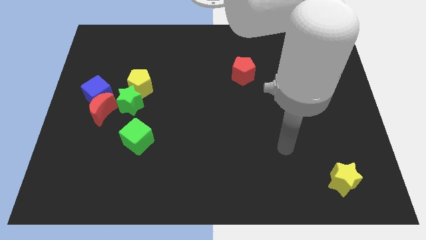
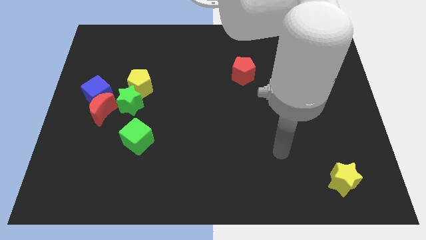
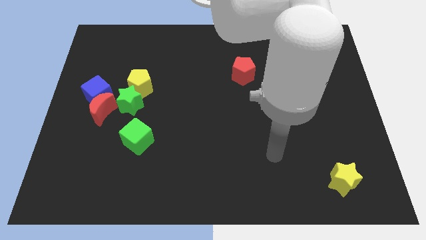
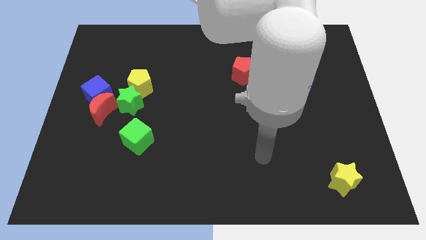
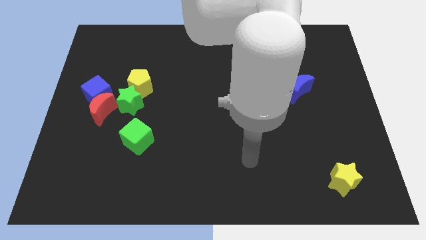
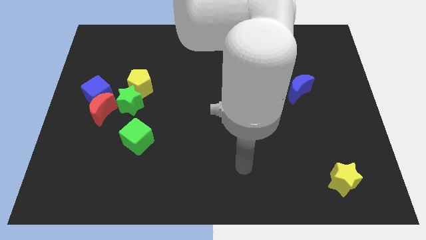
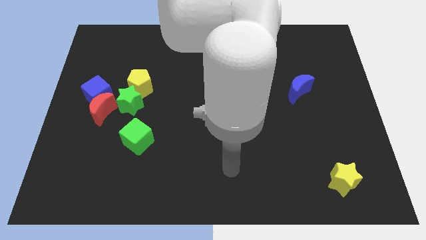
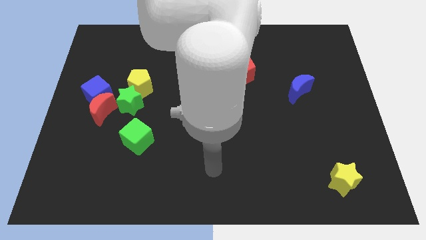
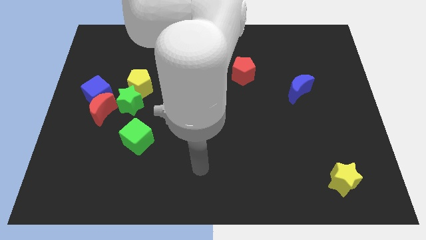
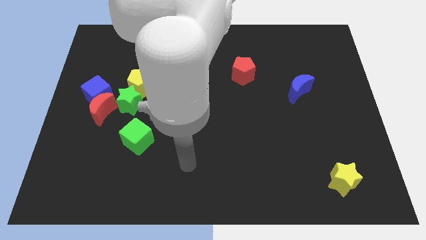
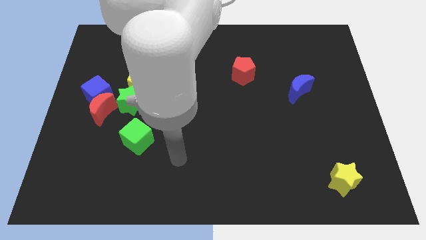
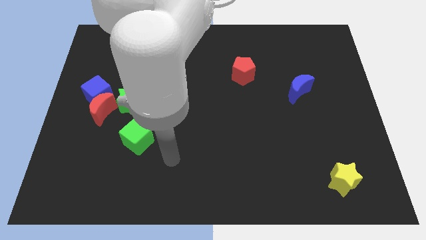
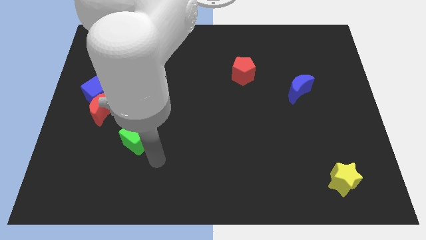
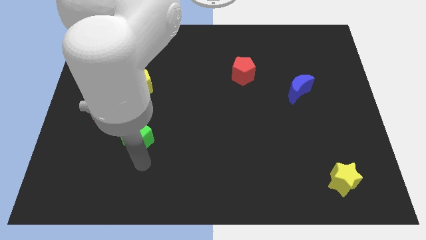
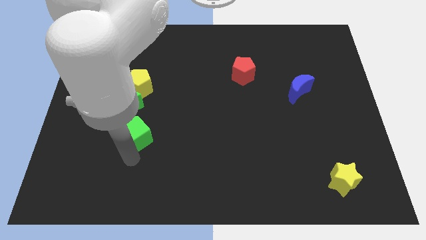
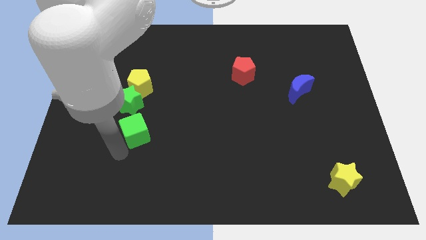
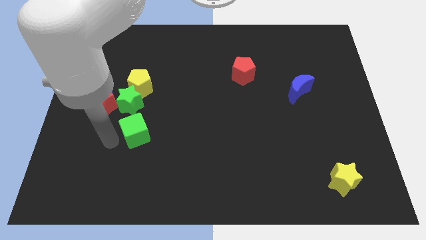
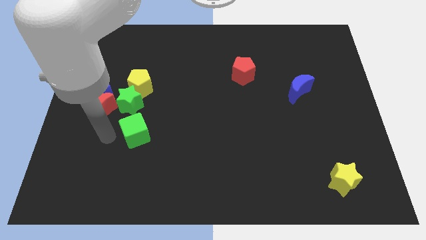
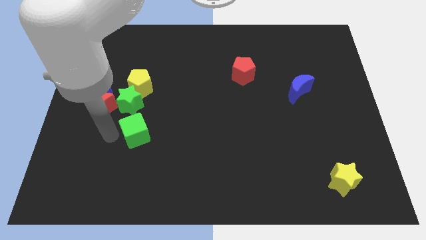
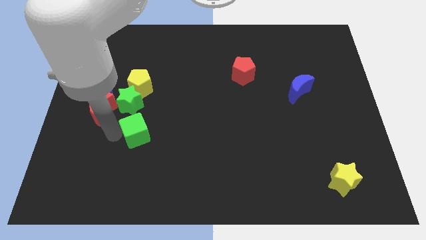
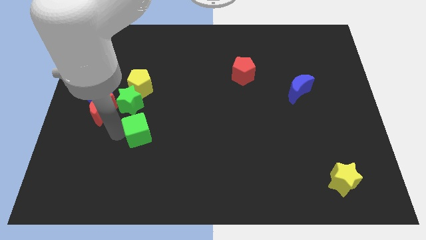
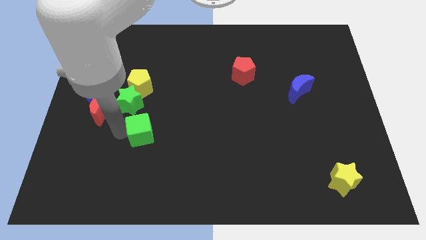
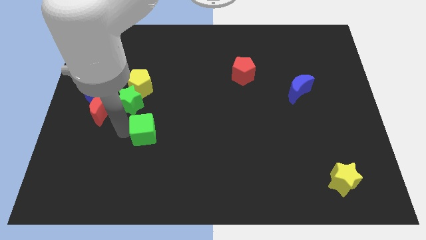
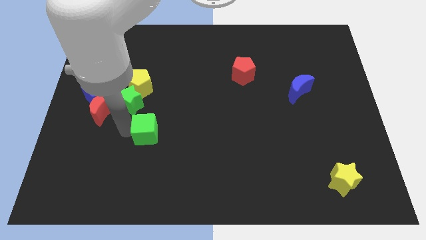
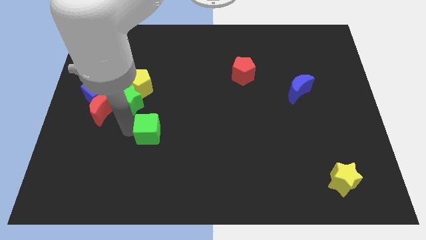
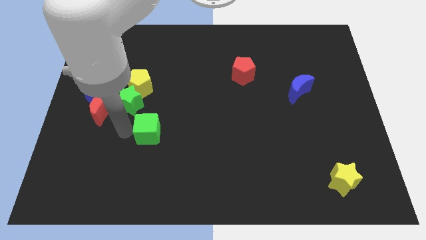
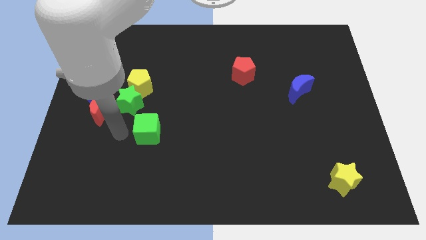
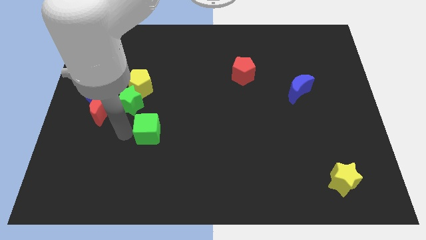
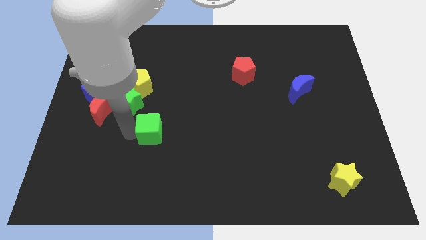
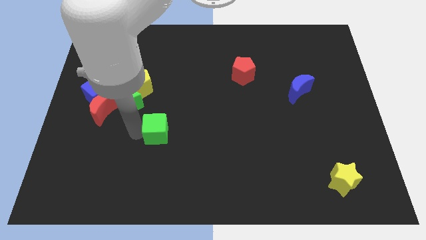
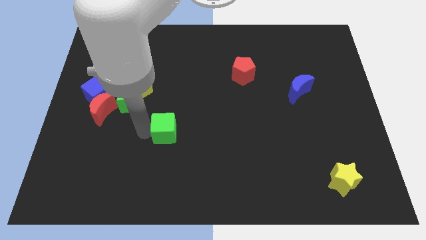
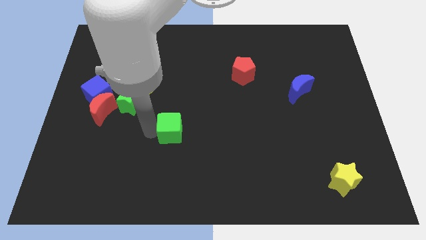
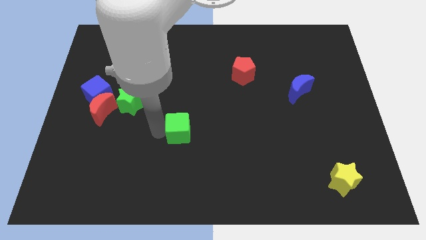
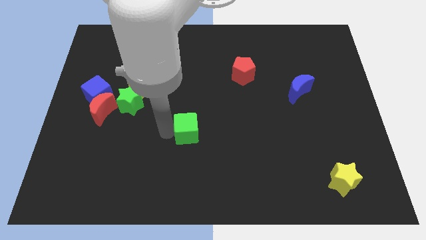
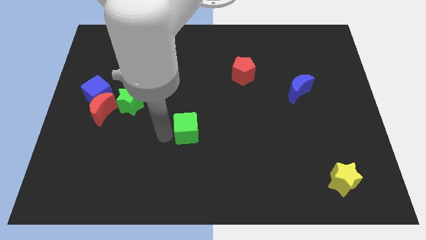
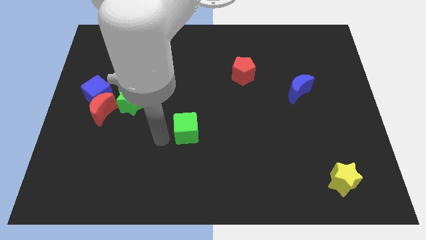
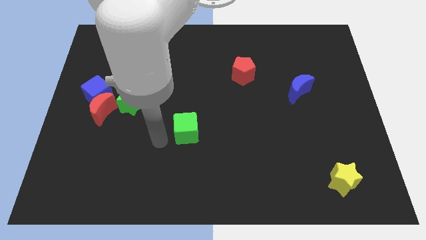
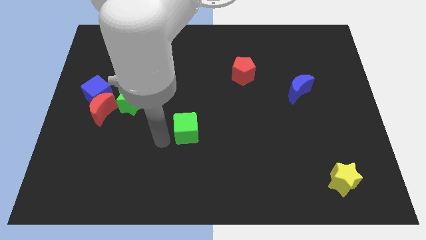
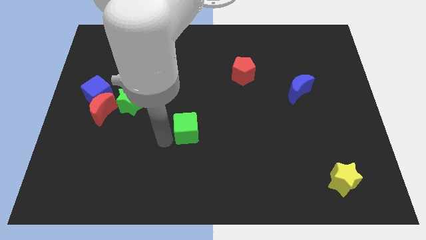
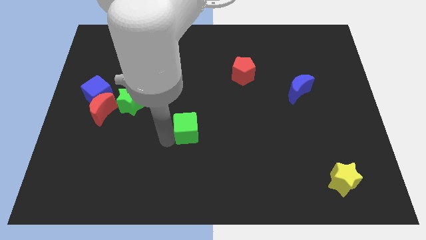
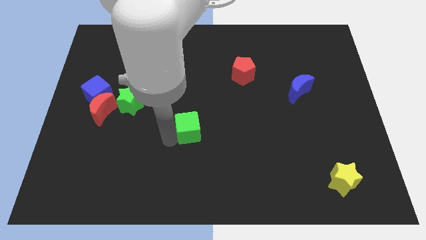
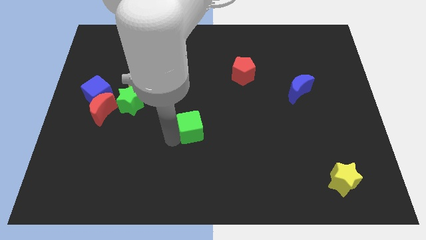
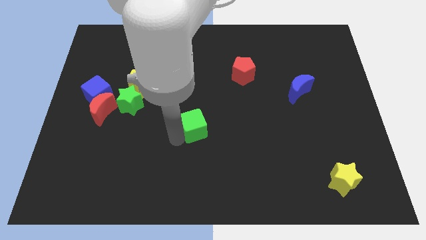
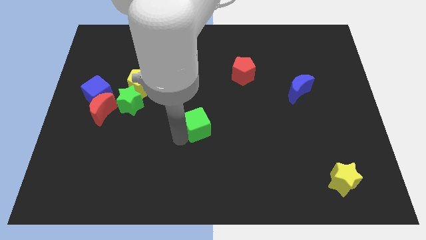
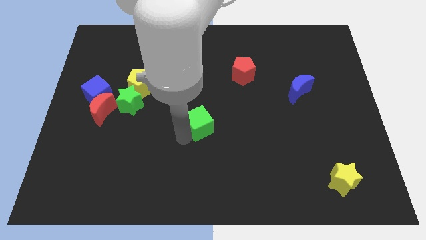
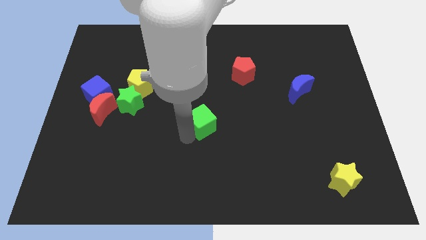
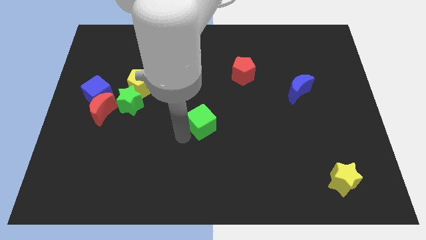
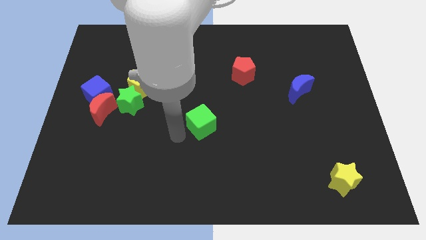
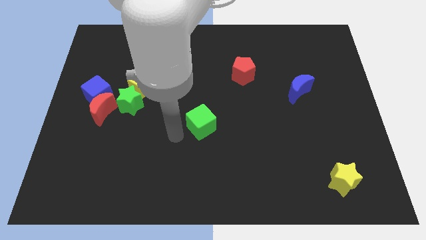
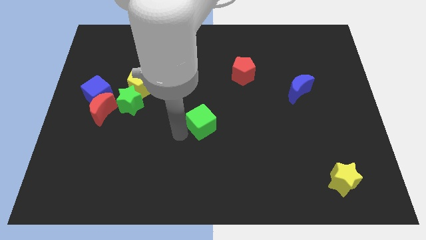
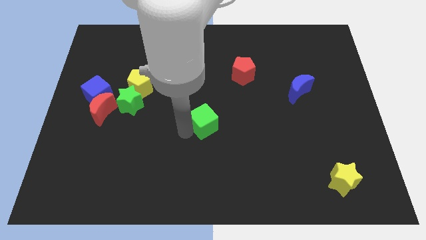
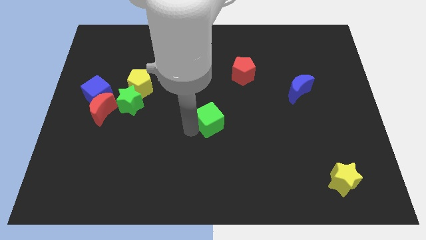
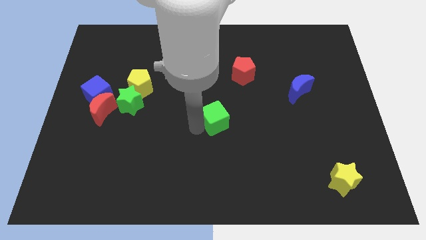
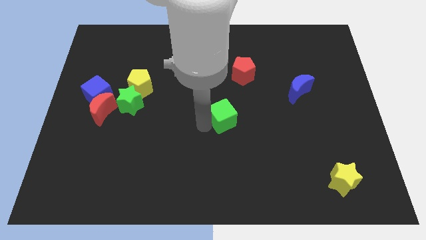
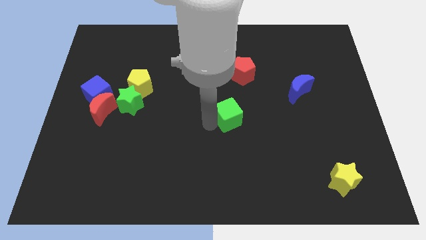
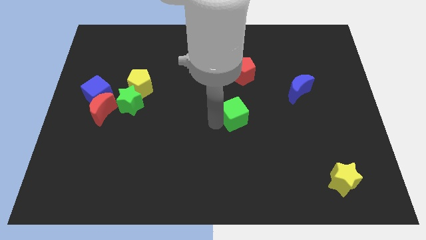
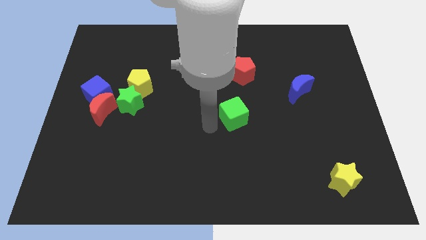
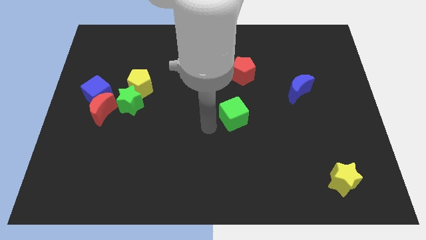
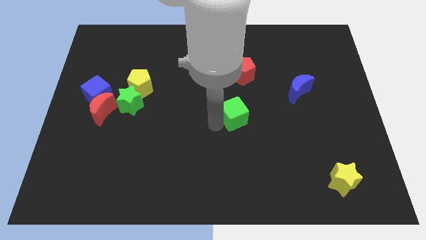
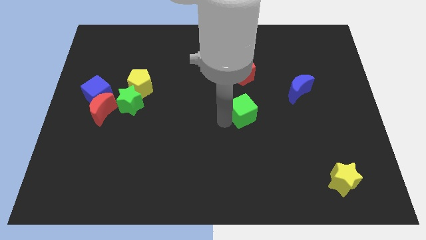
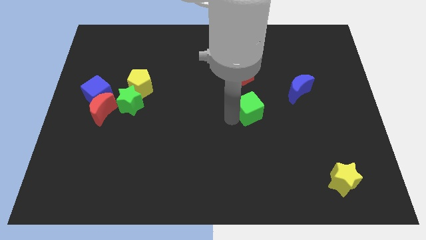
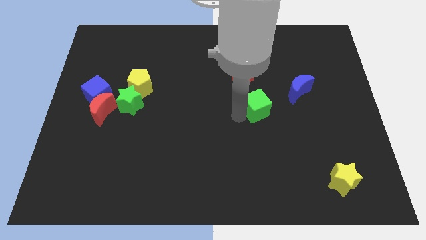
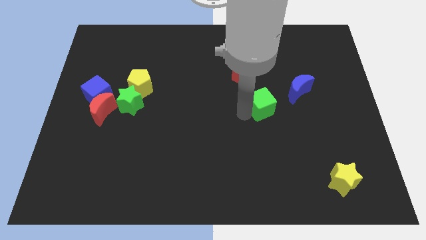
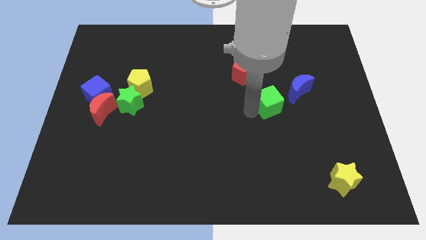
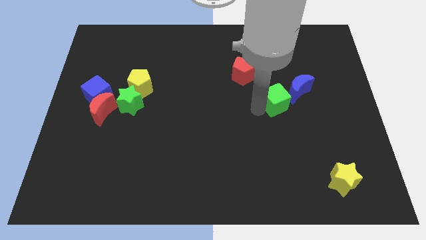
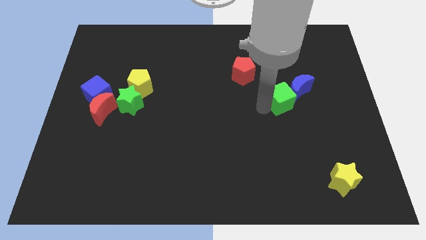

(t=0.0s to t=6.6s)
move the green cube to the blue moon
